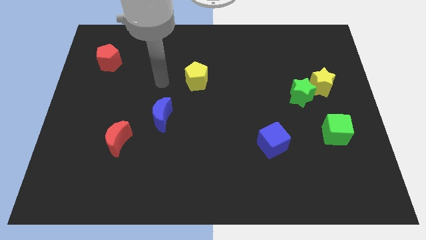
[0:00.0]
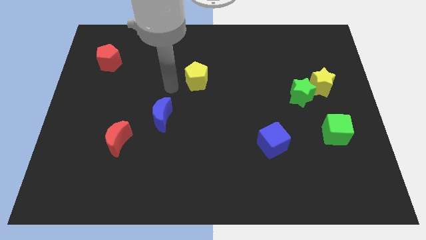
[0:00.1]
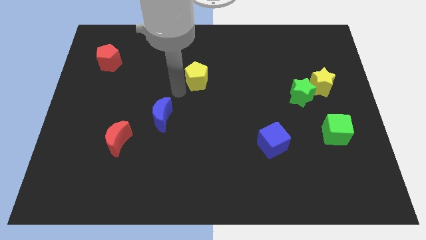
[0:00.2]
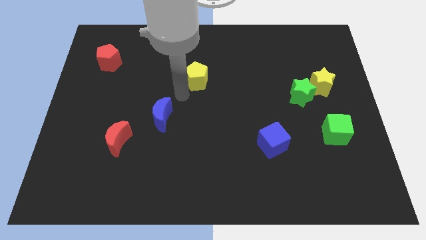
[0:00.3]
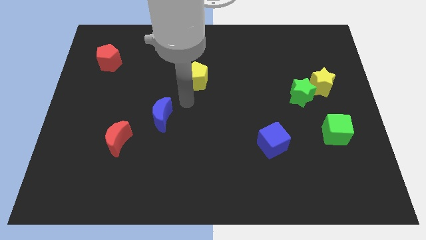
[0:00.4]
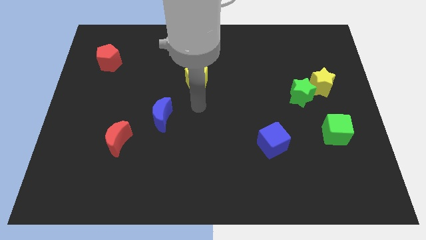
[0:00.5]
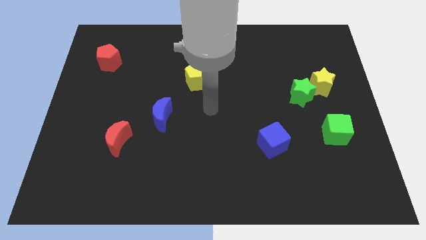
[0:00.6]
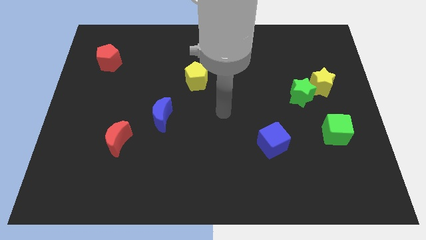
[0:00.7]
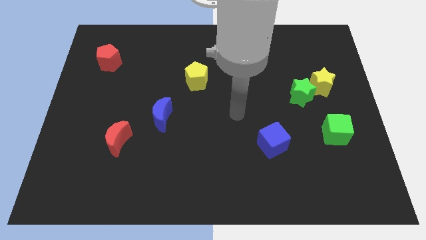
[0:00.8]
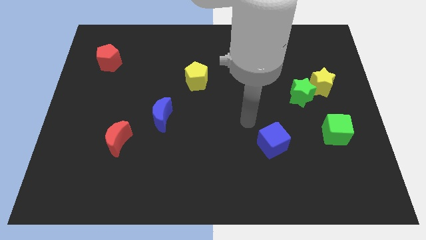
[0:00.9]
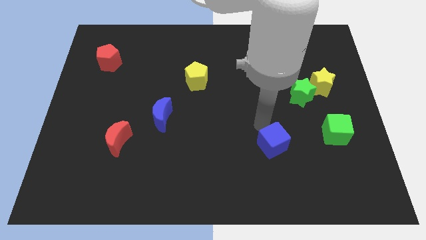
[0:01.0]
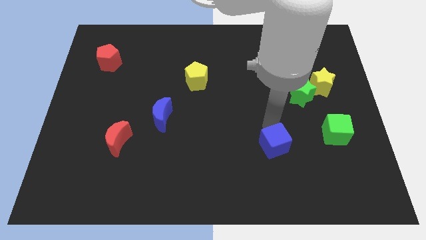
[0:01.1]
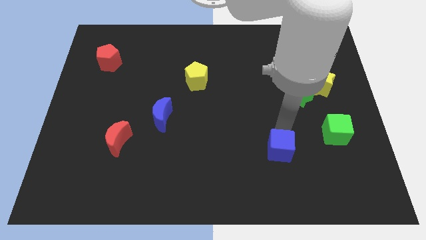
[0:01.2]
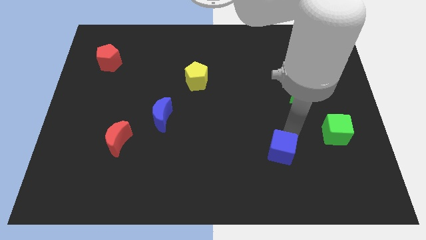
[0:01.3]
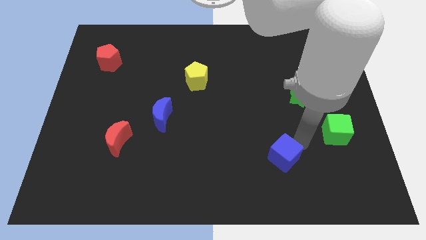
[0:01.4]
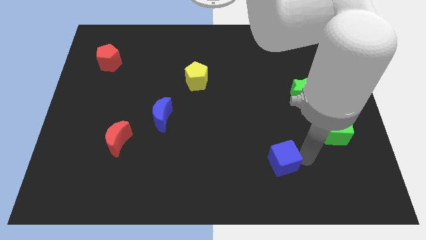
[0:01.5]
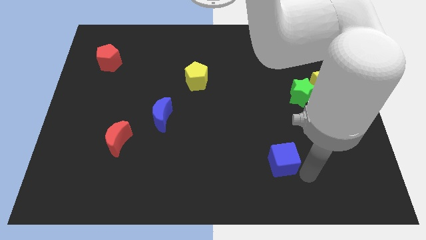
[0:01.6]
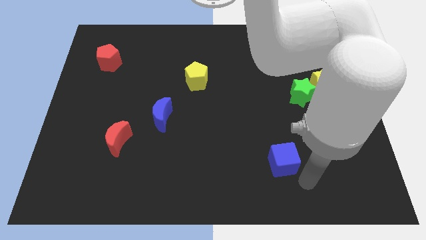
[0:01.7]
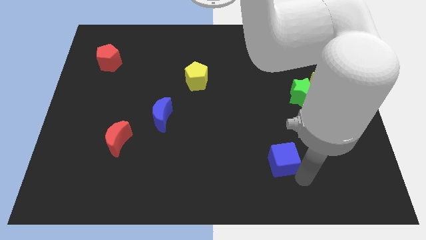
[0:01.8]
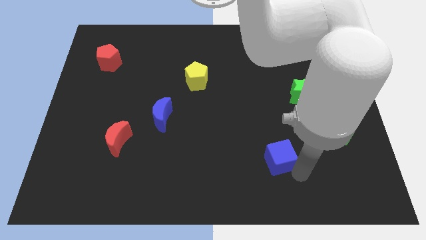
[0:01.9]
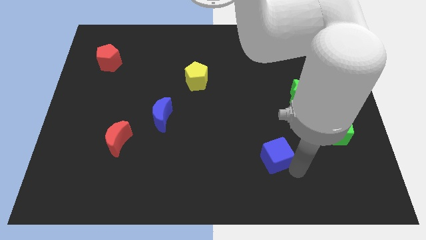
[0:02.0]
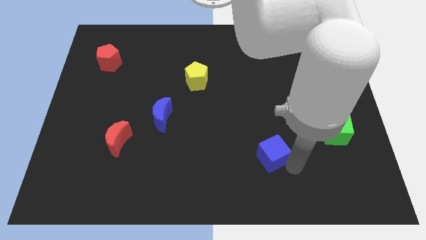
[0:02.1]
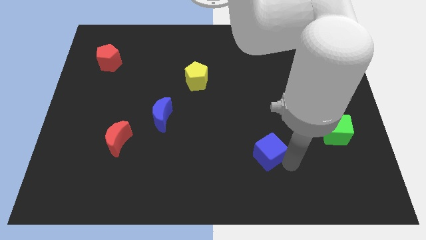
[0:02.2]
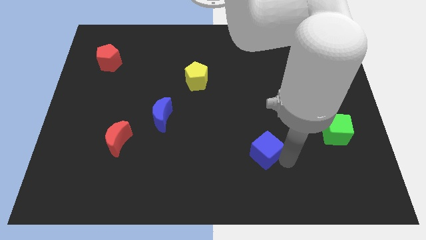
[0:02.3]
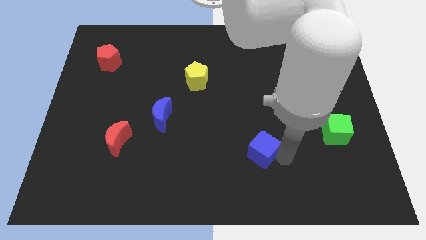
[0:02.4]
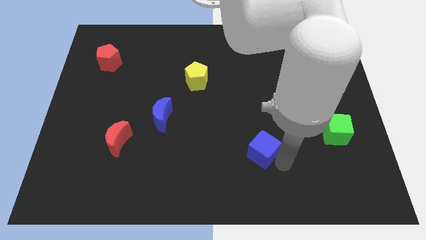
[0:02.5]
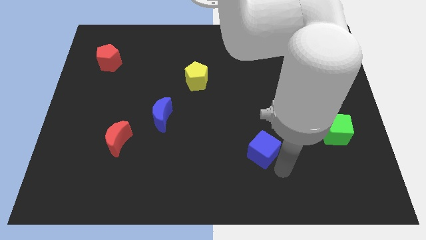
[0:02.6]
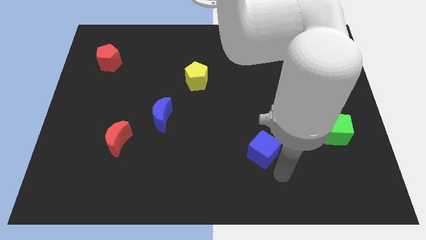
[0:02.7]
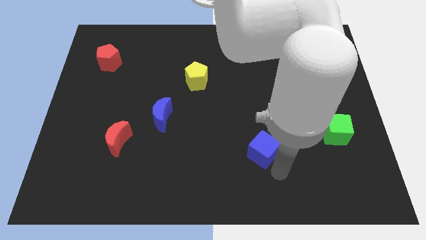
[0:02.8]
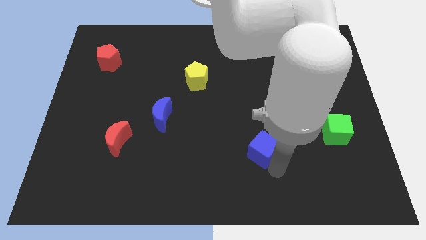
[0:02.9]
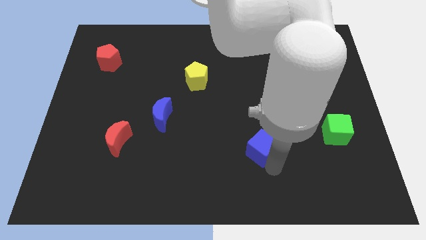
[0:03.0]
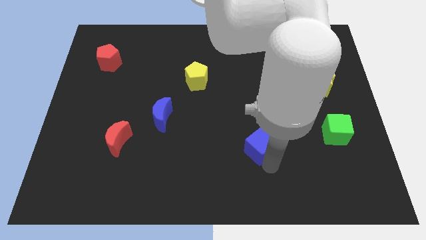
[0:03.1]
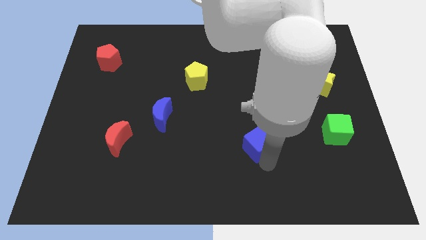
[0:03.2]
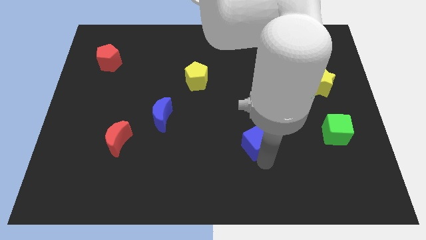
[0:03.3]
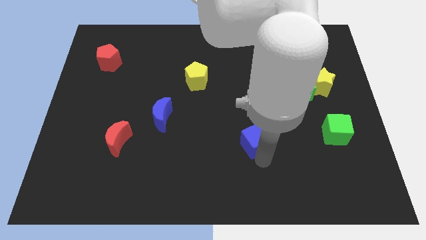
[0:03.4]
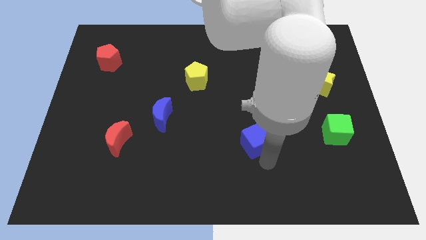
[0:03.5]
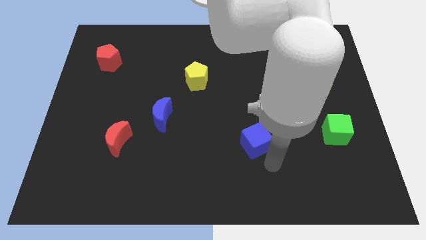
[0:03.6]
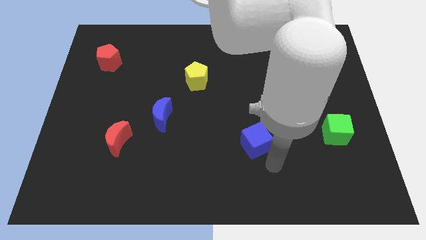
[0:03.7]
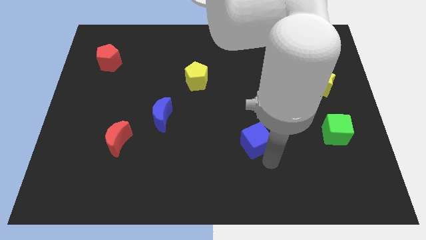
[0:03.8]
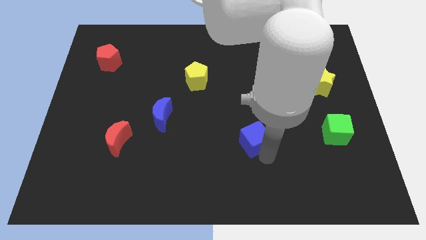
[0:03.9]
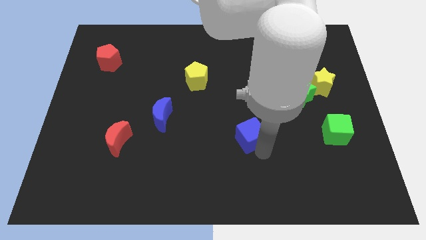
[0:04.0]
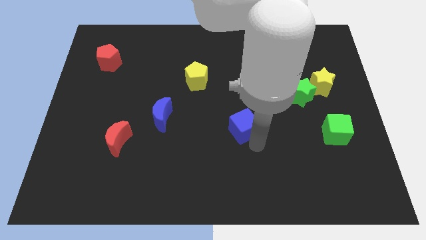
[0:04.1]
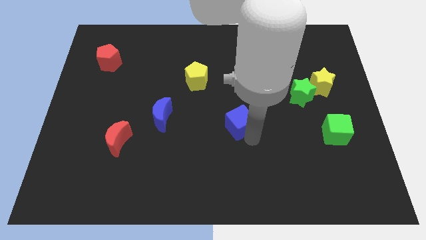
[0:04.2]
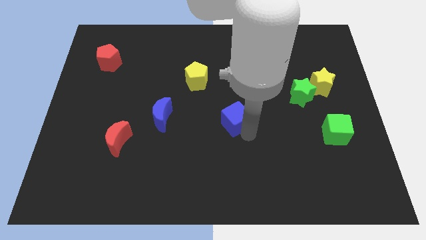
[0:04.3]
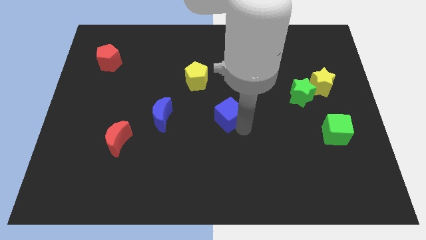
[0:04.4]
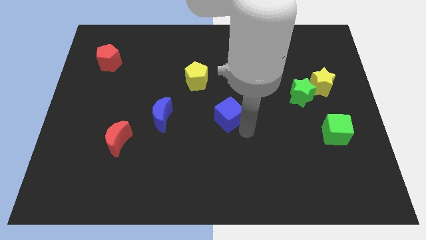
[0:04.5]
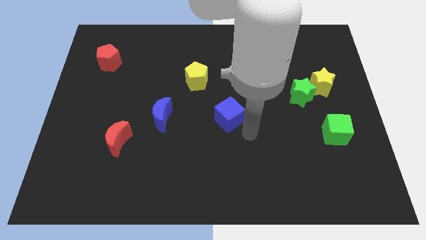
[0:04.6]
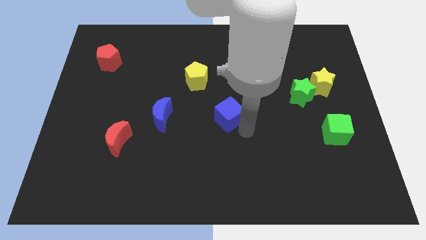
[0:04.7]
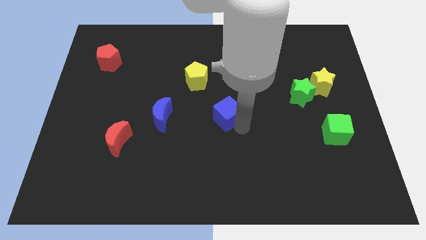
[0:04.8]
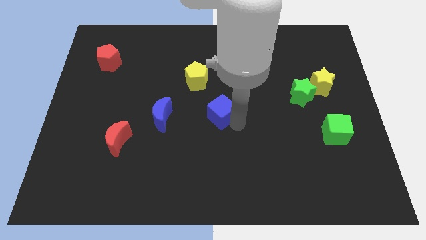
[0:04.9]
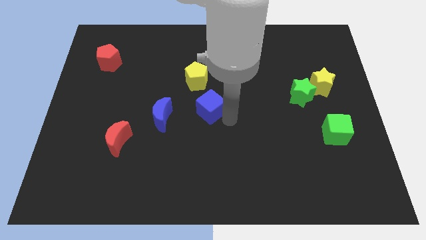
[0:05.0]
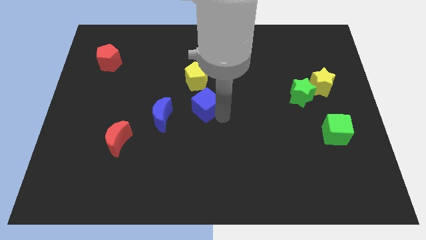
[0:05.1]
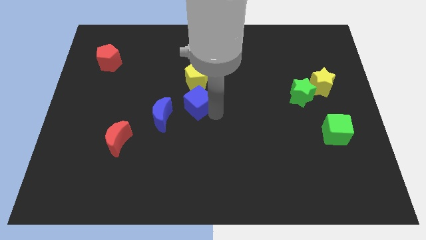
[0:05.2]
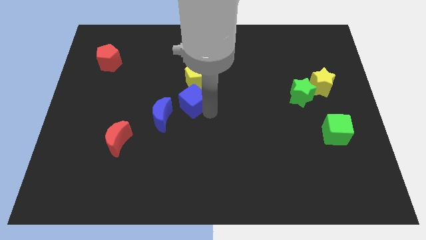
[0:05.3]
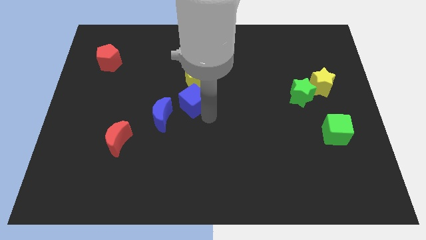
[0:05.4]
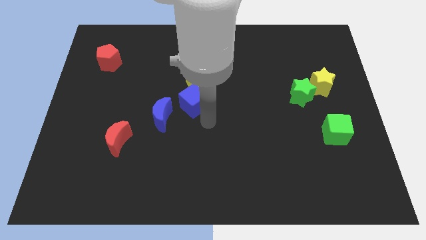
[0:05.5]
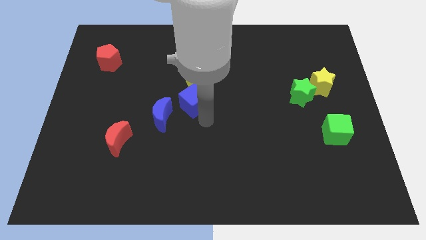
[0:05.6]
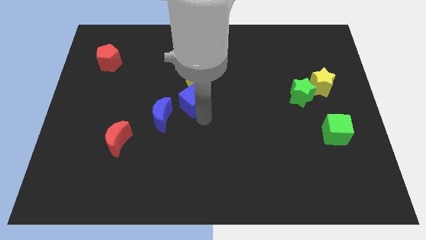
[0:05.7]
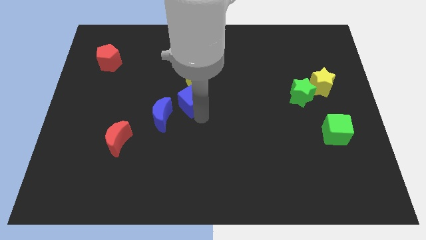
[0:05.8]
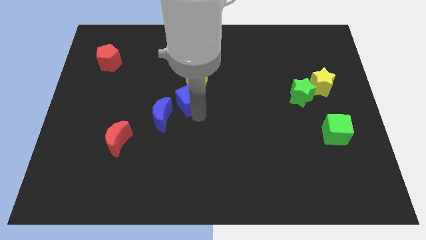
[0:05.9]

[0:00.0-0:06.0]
slide the blue cube diagonally up and to the left

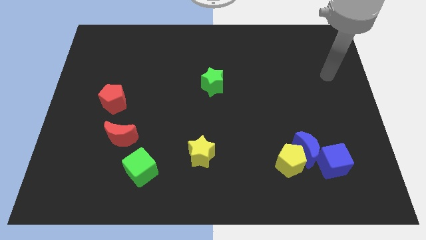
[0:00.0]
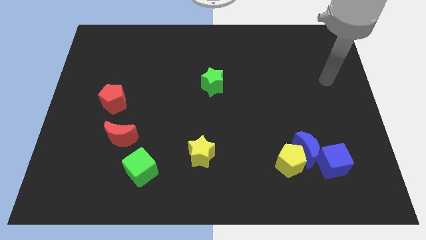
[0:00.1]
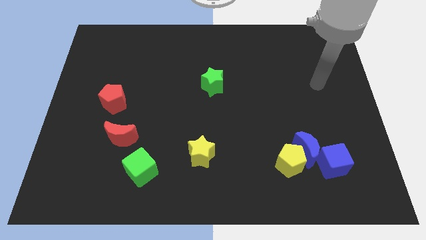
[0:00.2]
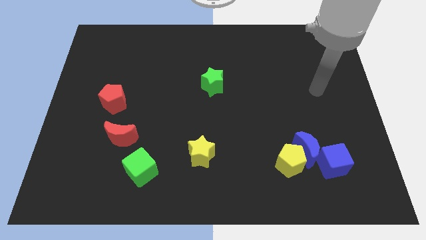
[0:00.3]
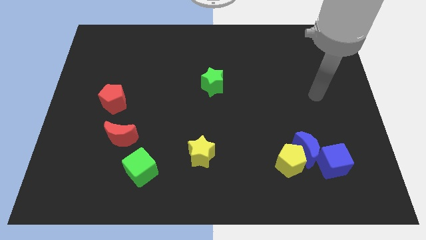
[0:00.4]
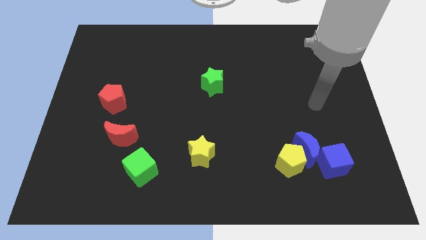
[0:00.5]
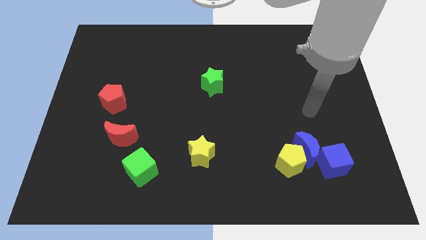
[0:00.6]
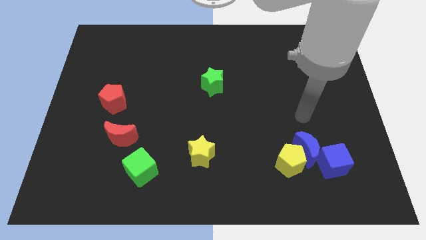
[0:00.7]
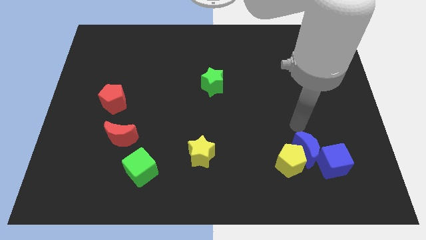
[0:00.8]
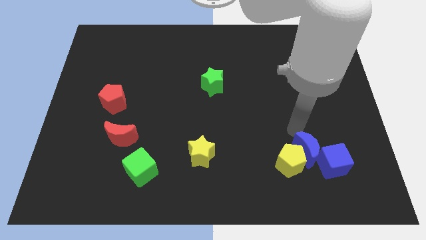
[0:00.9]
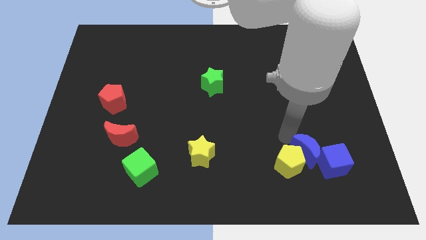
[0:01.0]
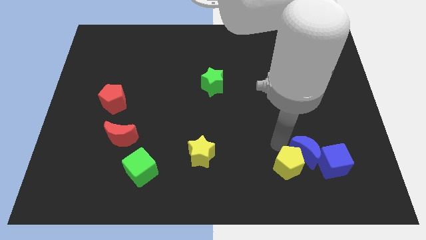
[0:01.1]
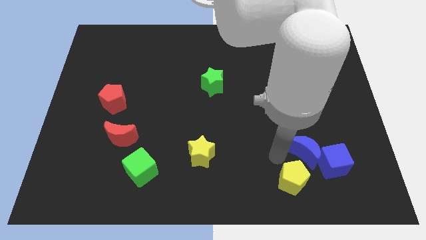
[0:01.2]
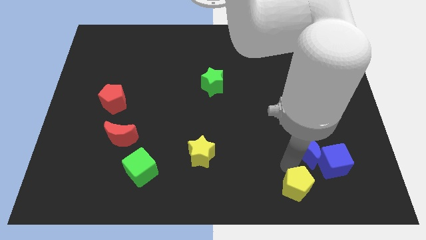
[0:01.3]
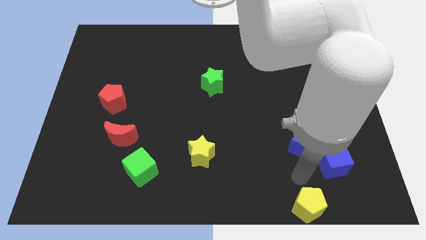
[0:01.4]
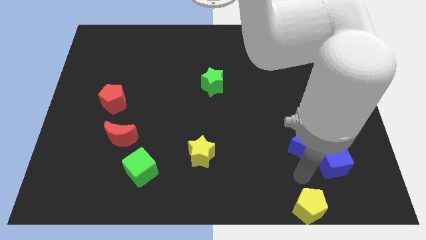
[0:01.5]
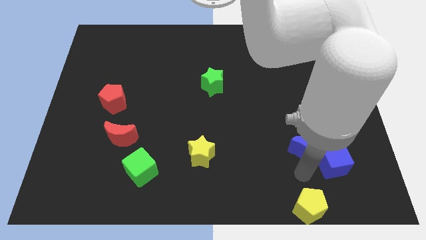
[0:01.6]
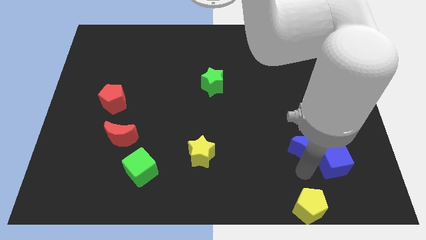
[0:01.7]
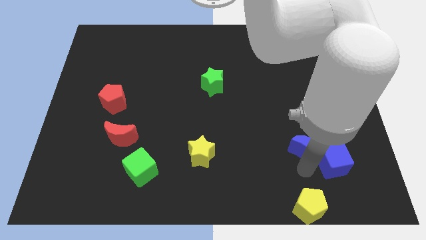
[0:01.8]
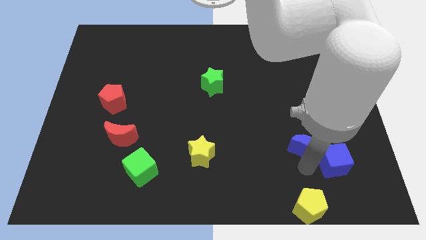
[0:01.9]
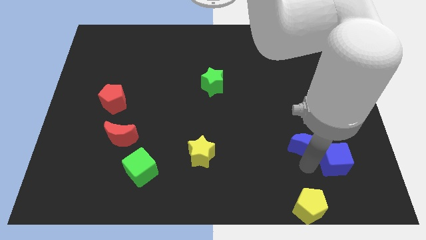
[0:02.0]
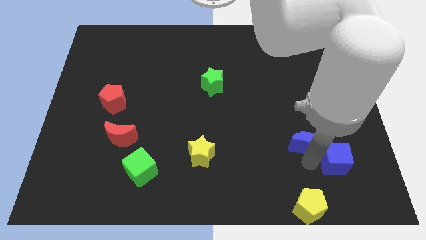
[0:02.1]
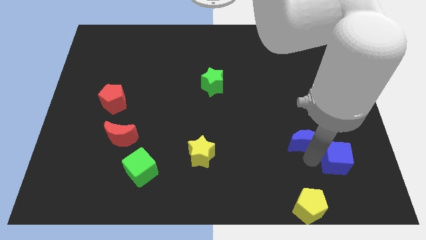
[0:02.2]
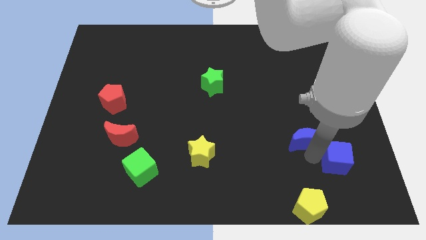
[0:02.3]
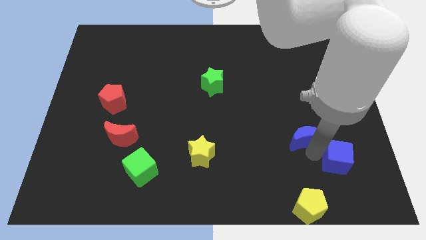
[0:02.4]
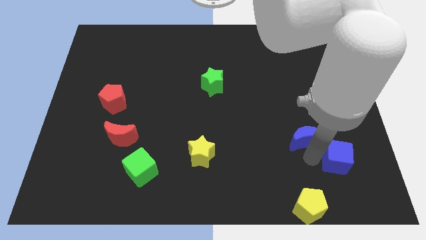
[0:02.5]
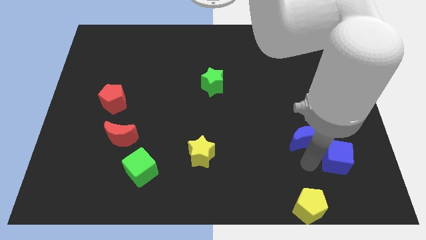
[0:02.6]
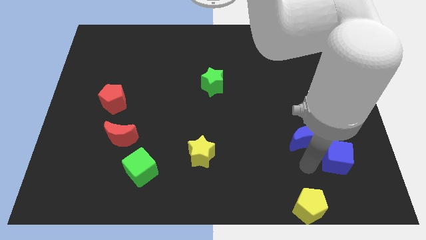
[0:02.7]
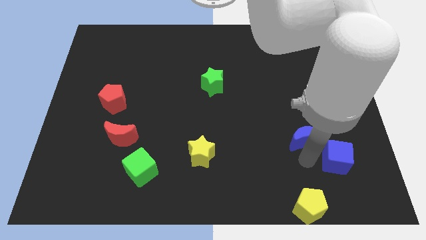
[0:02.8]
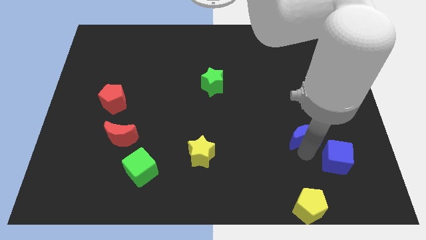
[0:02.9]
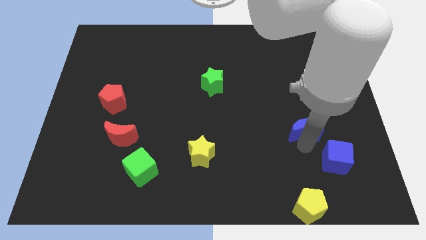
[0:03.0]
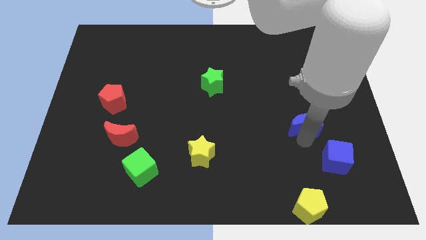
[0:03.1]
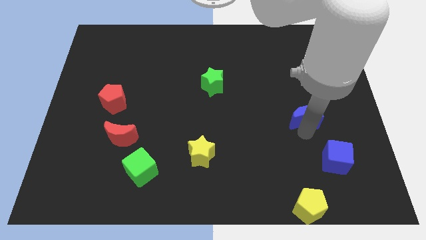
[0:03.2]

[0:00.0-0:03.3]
push the blue moon up a bit
